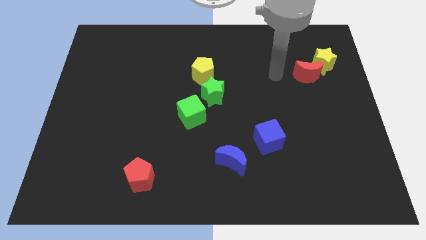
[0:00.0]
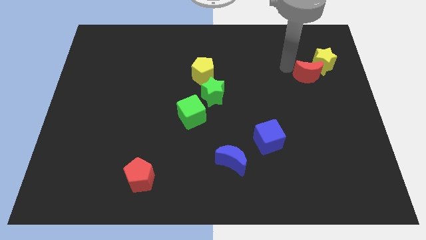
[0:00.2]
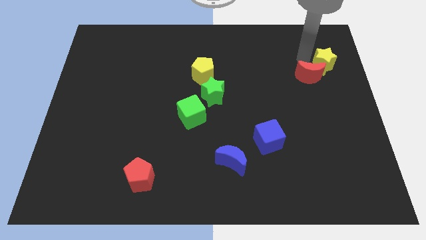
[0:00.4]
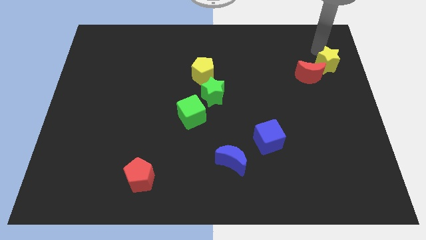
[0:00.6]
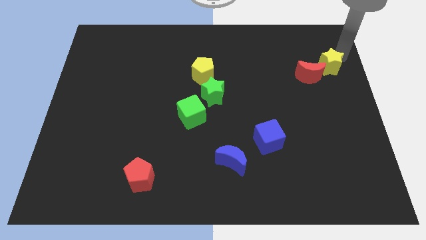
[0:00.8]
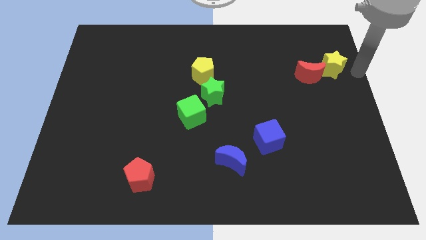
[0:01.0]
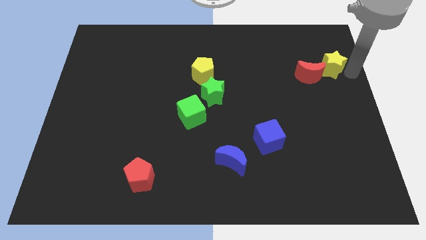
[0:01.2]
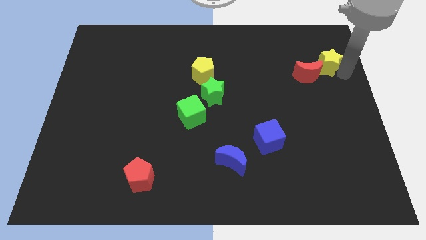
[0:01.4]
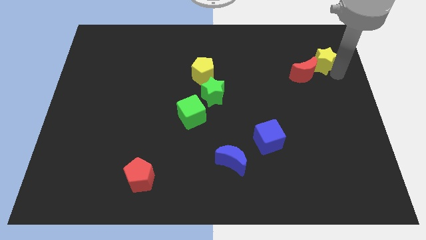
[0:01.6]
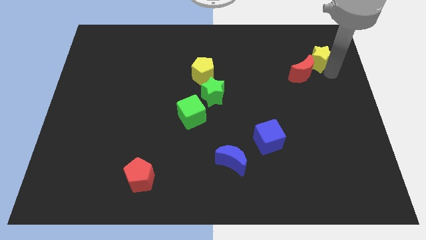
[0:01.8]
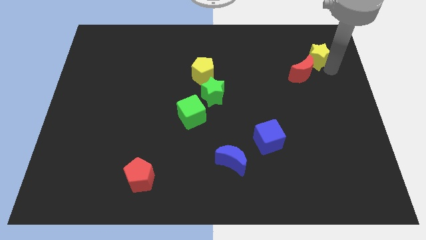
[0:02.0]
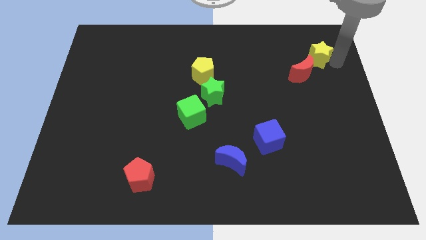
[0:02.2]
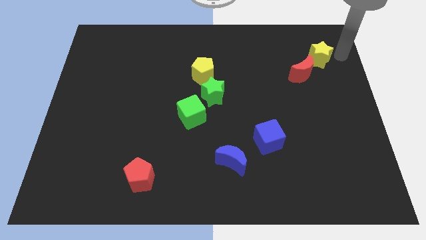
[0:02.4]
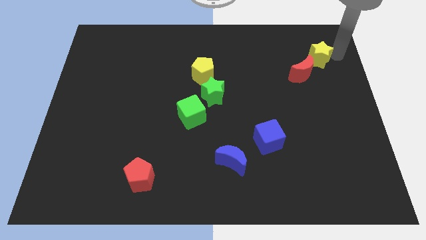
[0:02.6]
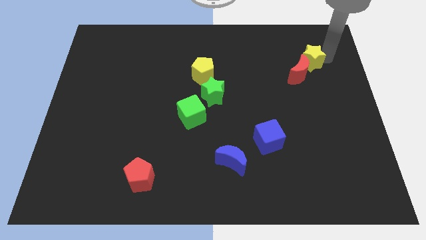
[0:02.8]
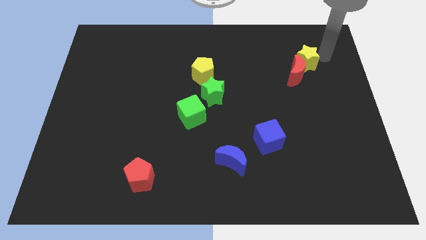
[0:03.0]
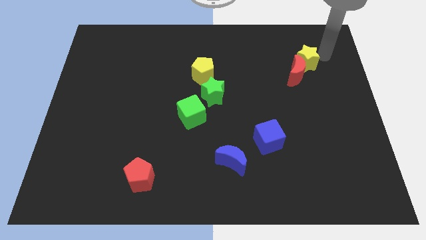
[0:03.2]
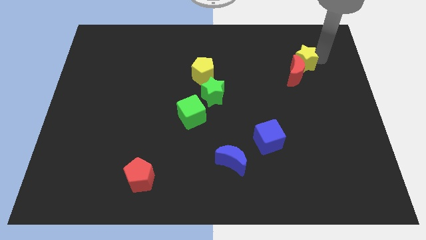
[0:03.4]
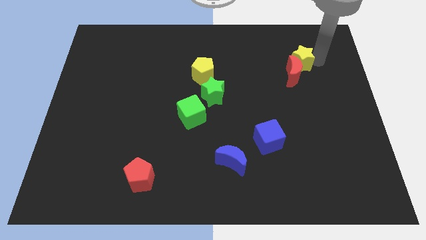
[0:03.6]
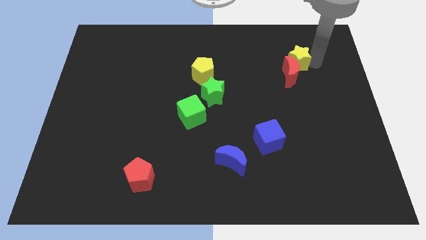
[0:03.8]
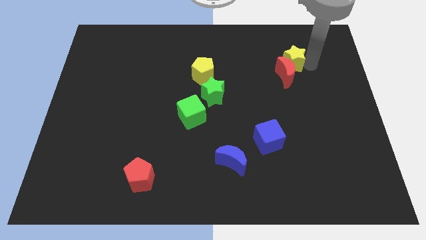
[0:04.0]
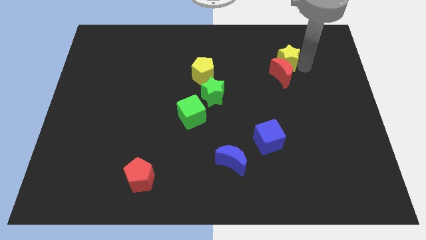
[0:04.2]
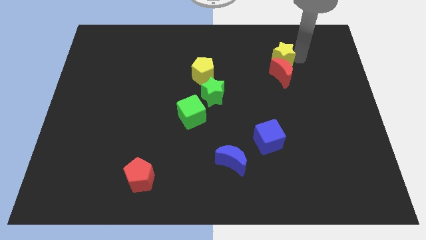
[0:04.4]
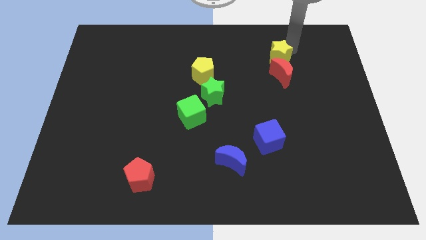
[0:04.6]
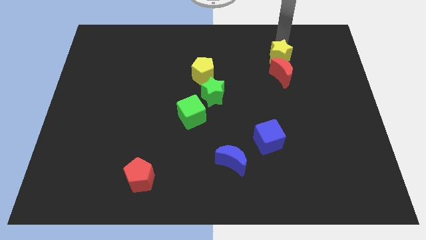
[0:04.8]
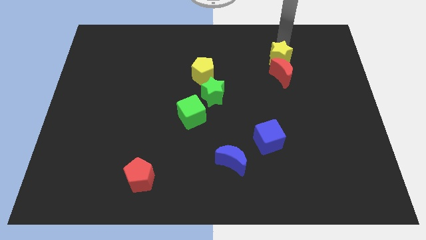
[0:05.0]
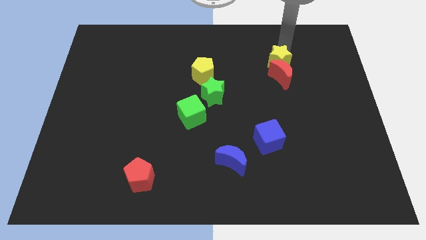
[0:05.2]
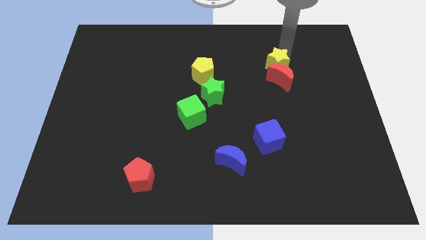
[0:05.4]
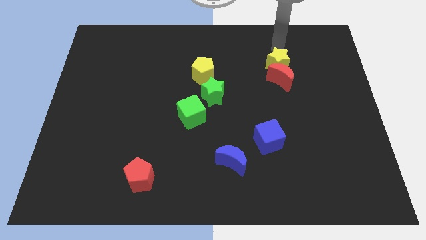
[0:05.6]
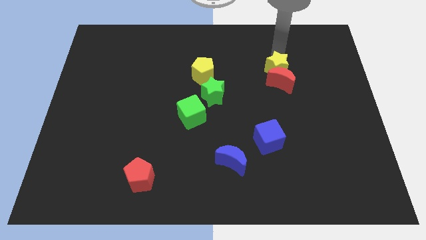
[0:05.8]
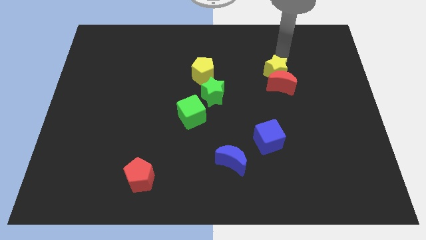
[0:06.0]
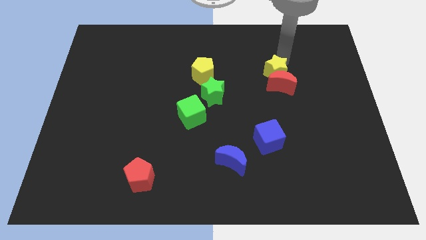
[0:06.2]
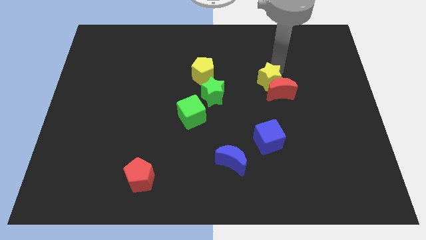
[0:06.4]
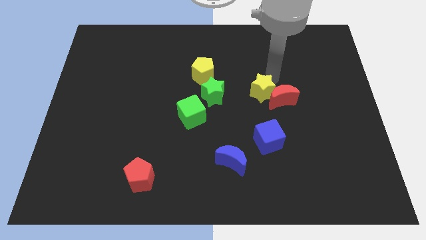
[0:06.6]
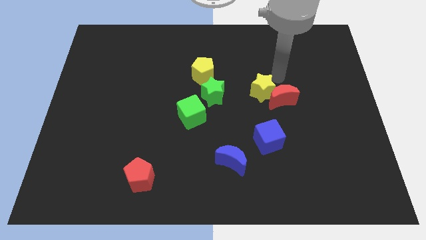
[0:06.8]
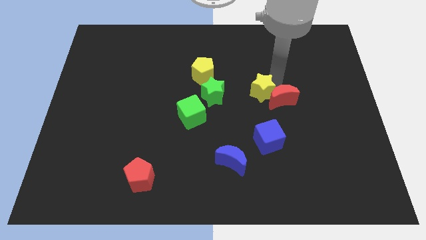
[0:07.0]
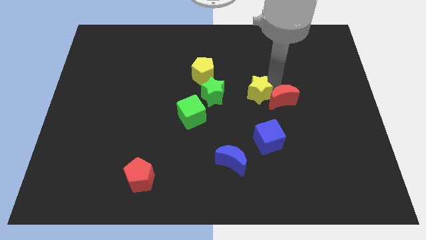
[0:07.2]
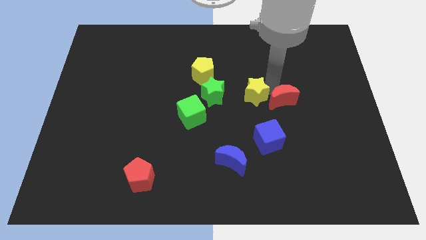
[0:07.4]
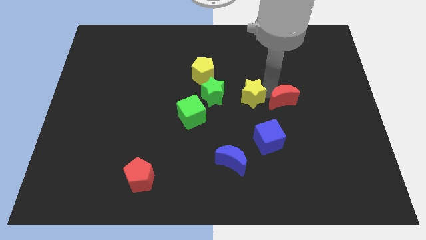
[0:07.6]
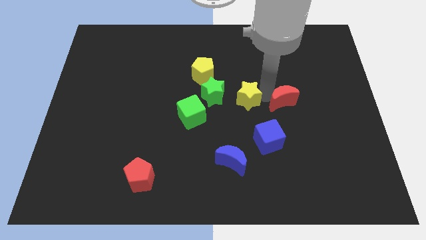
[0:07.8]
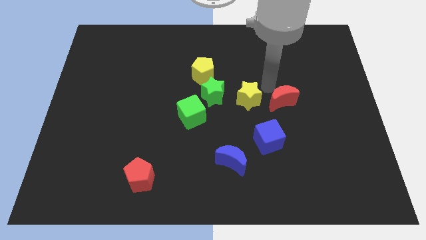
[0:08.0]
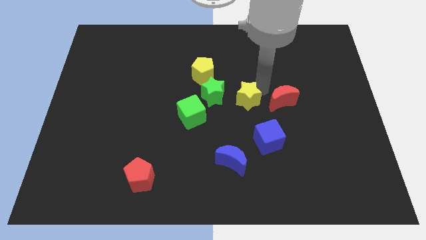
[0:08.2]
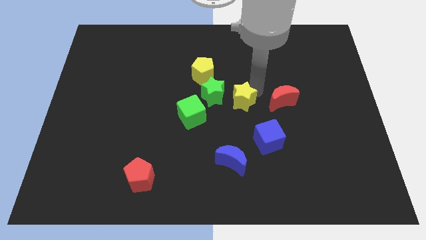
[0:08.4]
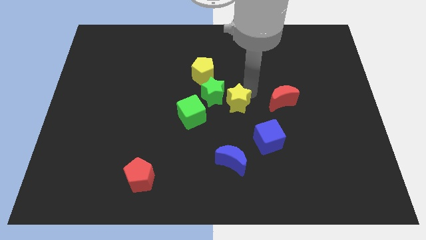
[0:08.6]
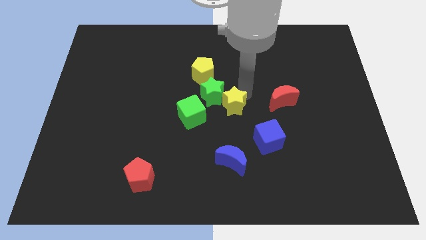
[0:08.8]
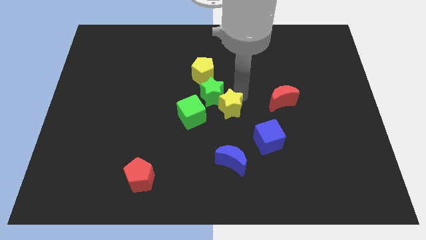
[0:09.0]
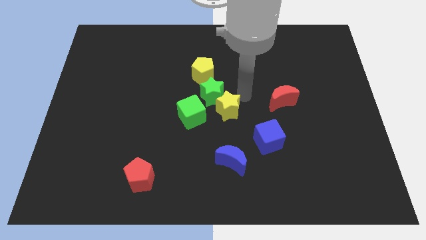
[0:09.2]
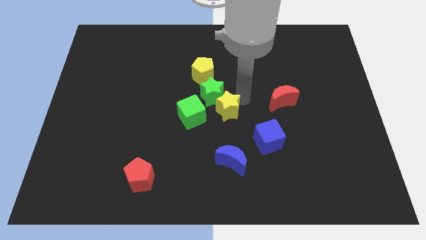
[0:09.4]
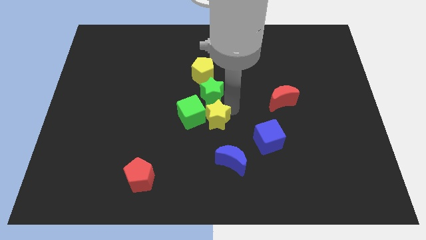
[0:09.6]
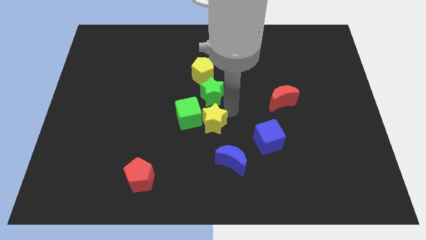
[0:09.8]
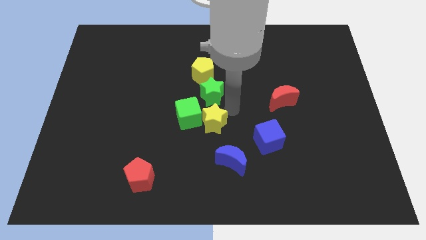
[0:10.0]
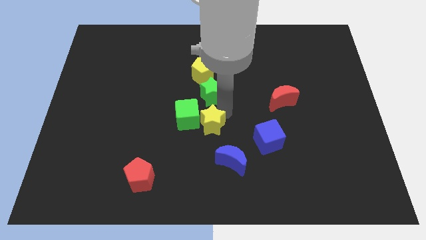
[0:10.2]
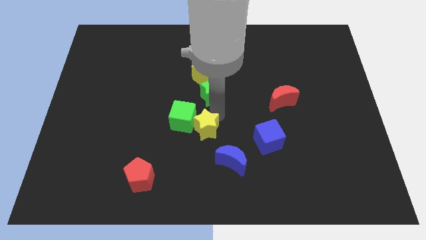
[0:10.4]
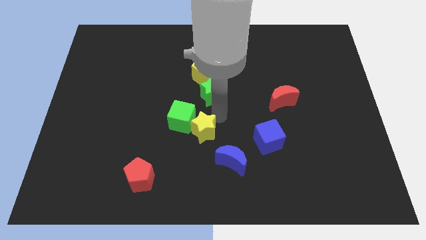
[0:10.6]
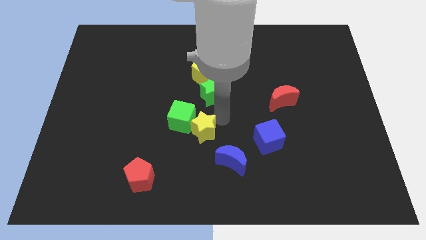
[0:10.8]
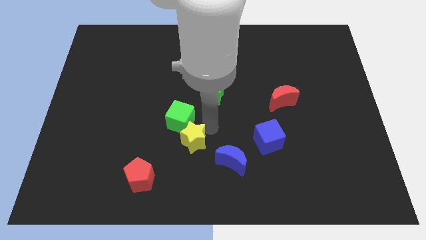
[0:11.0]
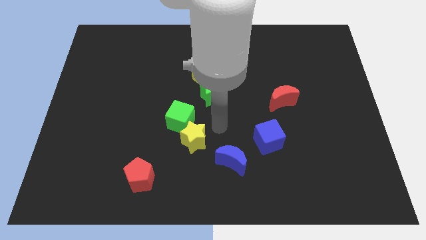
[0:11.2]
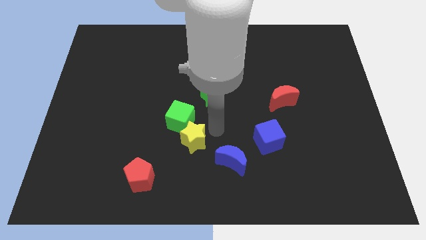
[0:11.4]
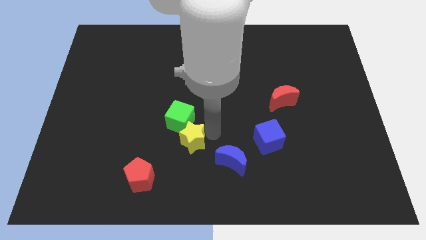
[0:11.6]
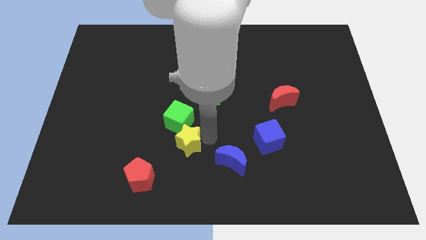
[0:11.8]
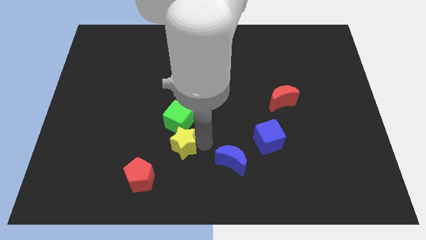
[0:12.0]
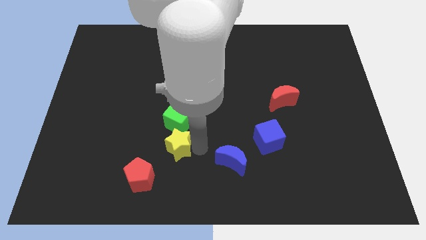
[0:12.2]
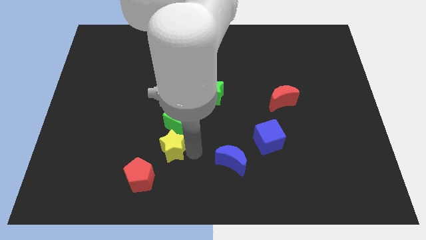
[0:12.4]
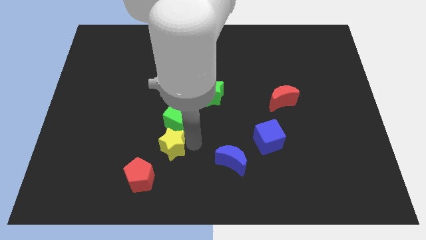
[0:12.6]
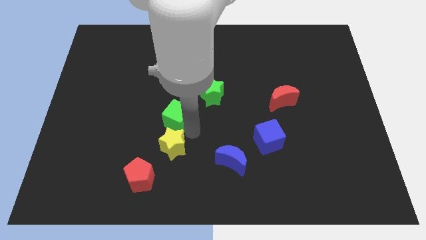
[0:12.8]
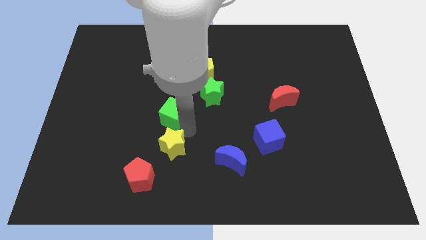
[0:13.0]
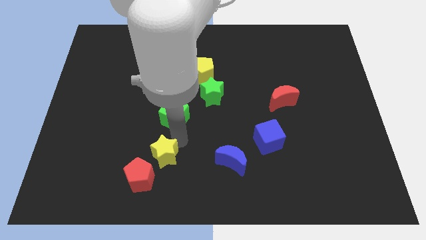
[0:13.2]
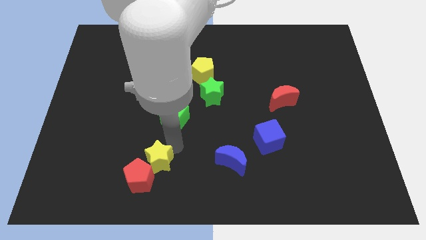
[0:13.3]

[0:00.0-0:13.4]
put the yellow star next to the red pentagon

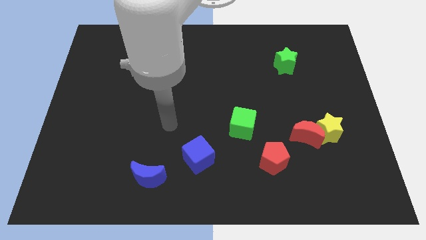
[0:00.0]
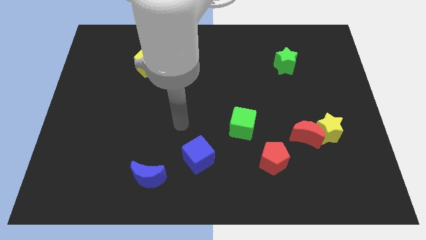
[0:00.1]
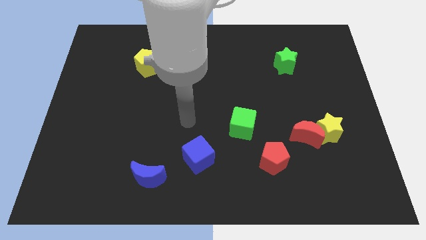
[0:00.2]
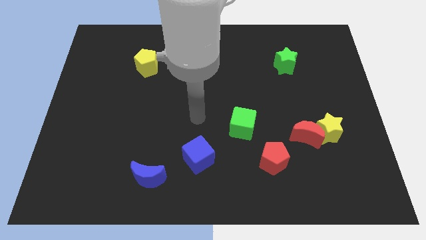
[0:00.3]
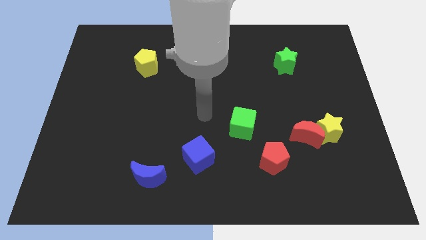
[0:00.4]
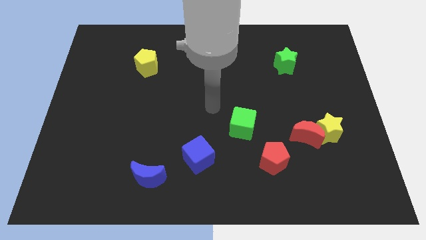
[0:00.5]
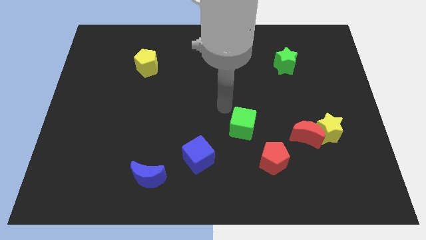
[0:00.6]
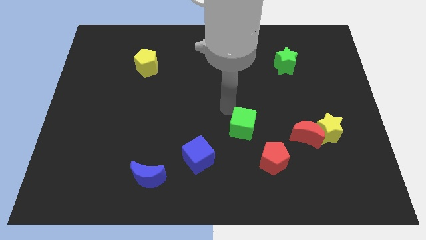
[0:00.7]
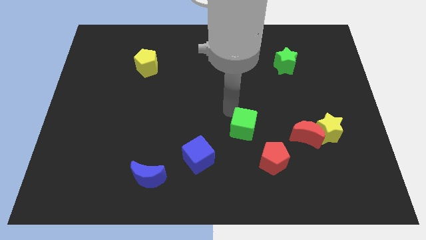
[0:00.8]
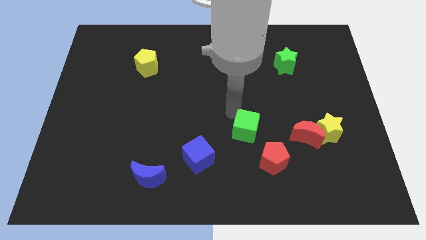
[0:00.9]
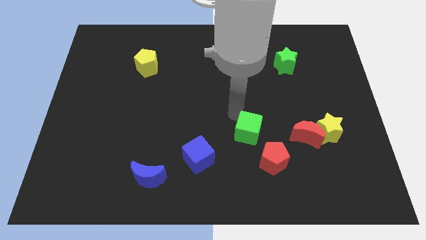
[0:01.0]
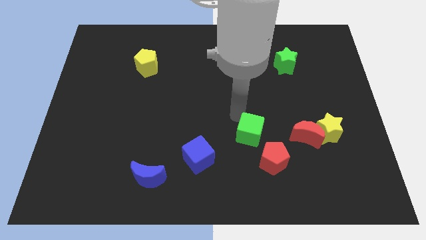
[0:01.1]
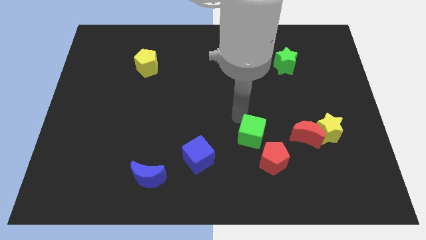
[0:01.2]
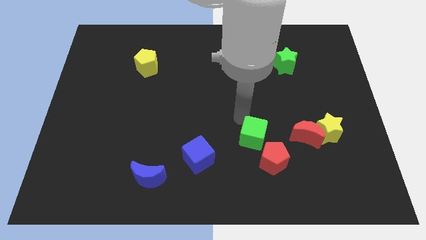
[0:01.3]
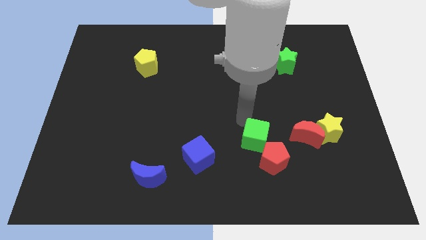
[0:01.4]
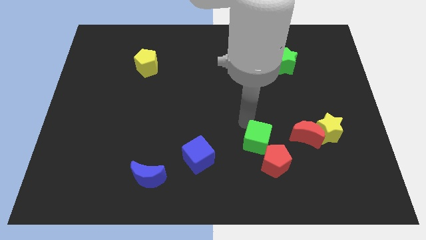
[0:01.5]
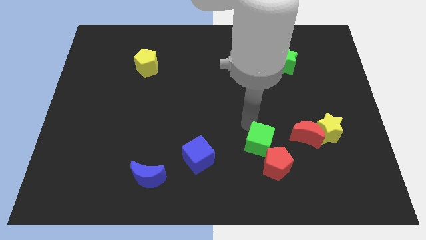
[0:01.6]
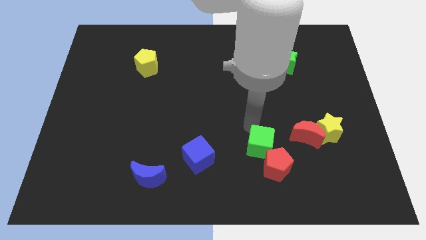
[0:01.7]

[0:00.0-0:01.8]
slide the green cube next to the red pentagon
